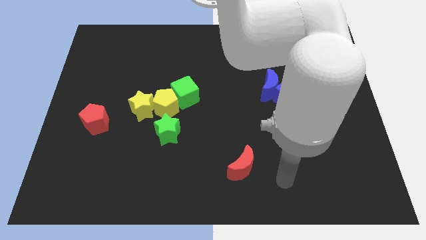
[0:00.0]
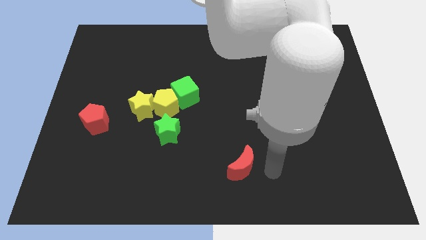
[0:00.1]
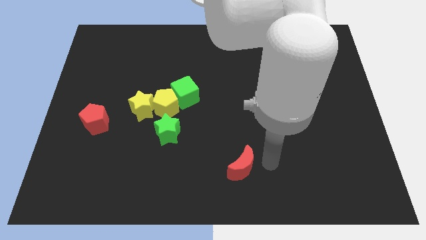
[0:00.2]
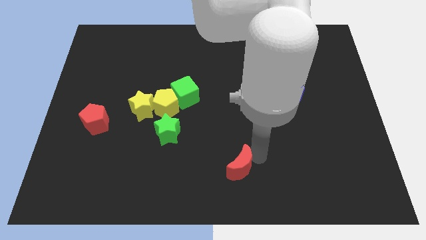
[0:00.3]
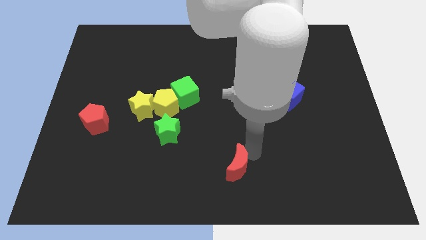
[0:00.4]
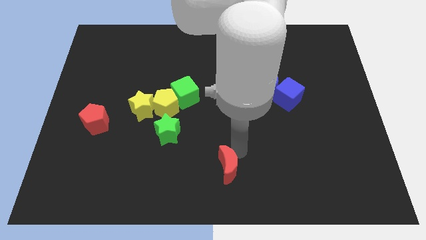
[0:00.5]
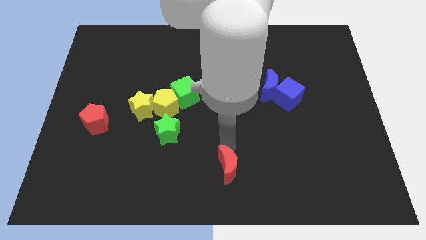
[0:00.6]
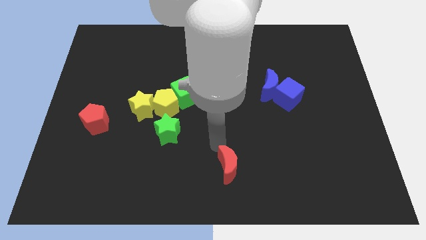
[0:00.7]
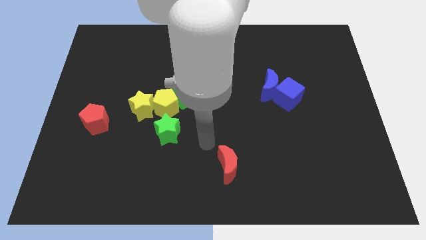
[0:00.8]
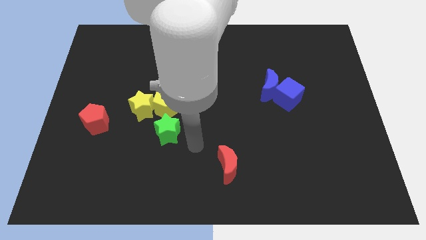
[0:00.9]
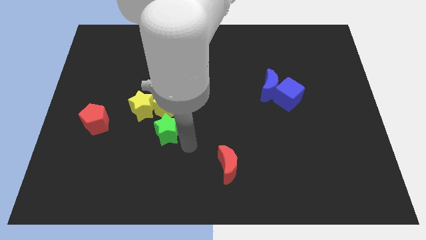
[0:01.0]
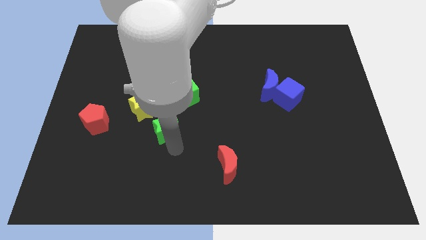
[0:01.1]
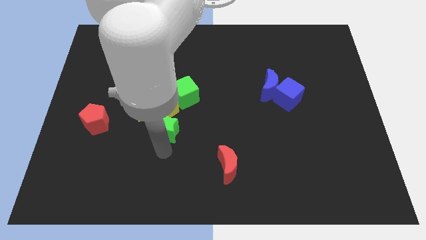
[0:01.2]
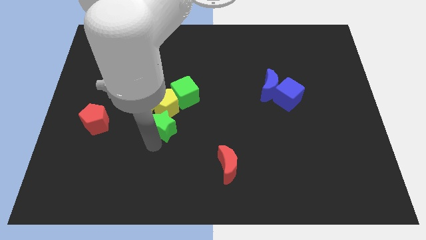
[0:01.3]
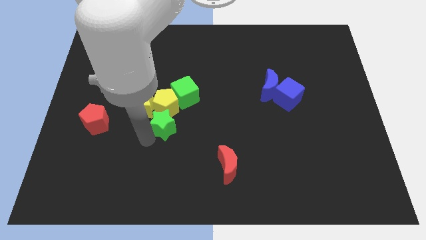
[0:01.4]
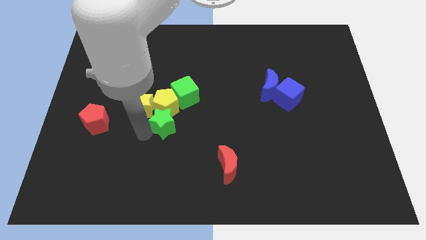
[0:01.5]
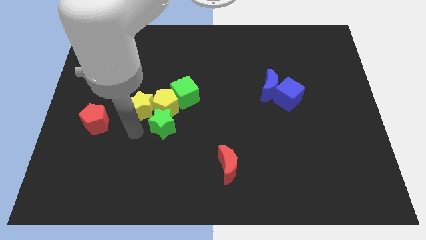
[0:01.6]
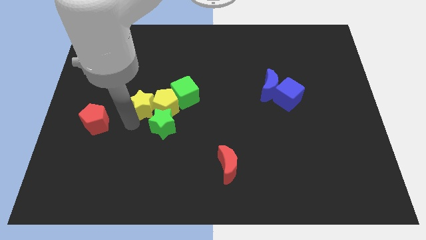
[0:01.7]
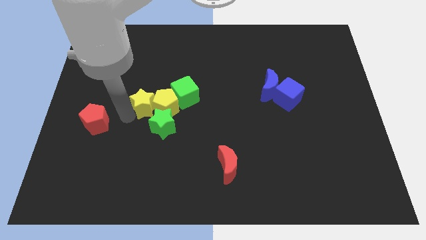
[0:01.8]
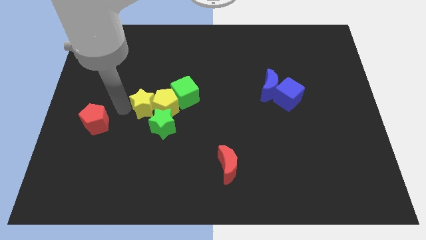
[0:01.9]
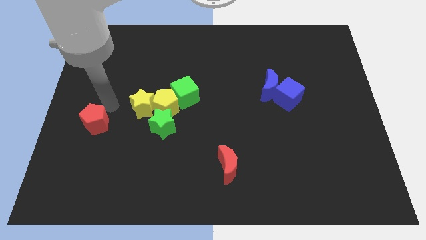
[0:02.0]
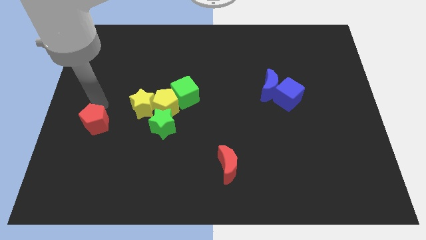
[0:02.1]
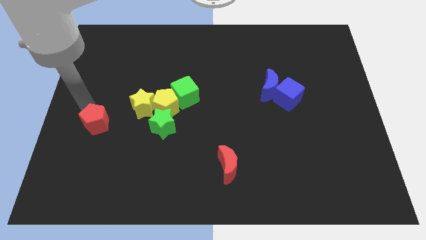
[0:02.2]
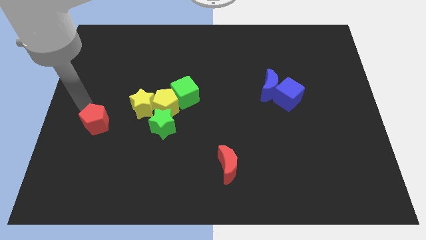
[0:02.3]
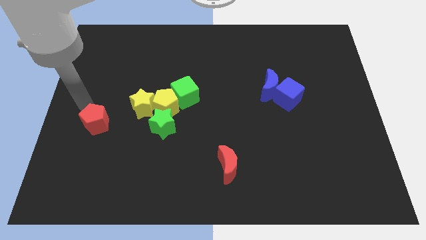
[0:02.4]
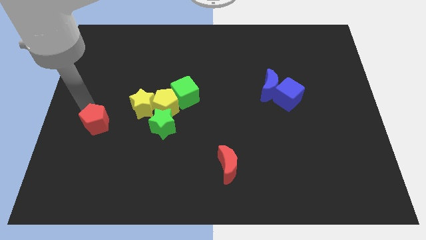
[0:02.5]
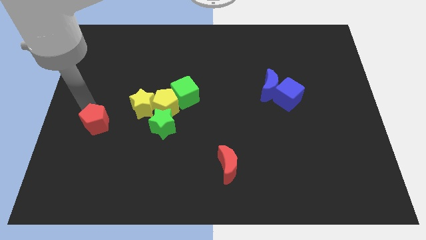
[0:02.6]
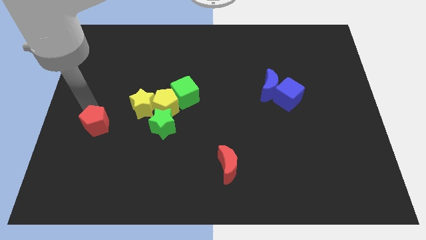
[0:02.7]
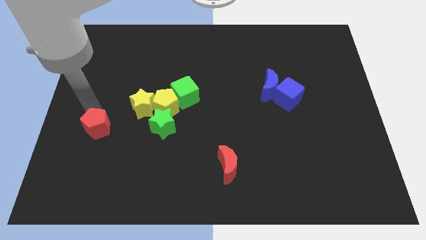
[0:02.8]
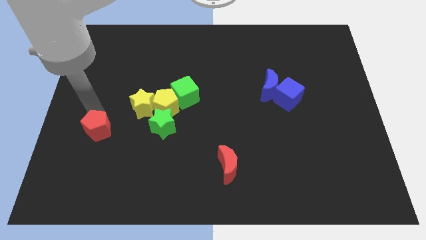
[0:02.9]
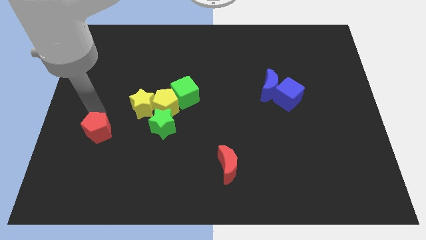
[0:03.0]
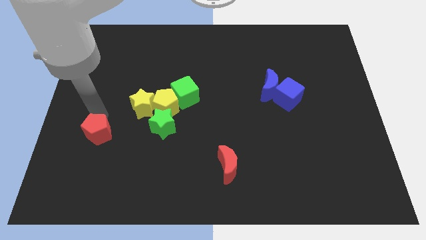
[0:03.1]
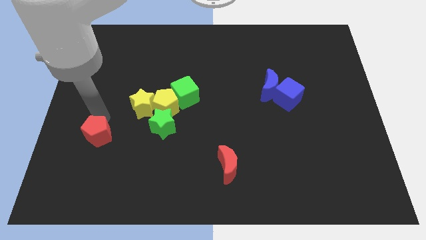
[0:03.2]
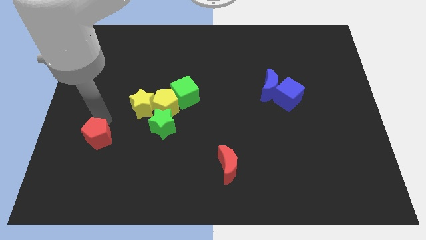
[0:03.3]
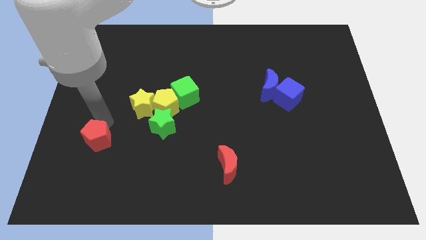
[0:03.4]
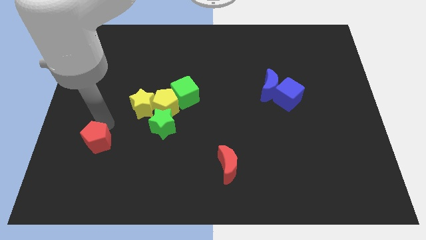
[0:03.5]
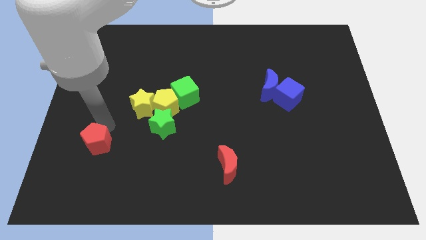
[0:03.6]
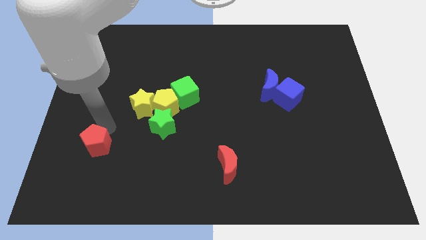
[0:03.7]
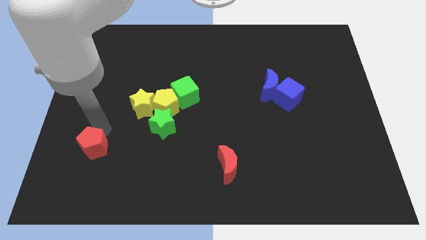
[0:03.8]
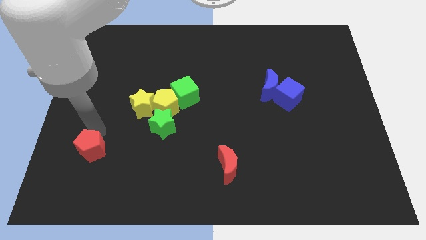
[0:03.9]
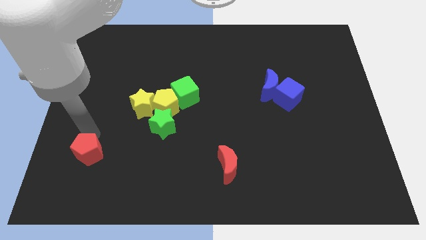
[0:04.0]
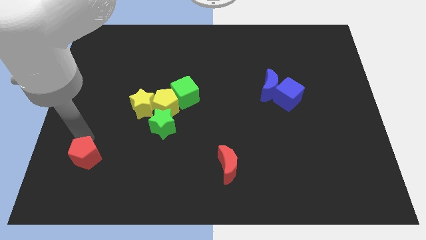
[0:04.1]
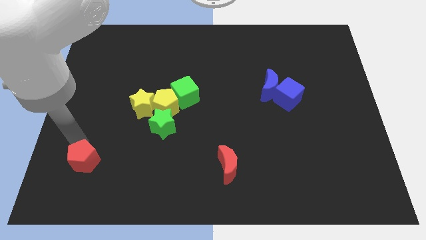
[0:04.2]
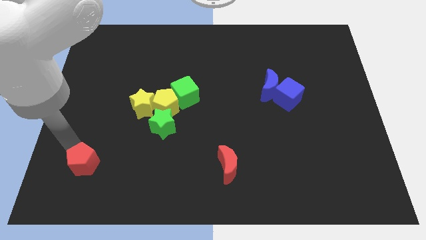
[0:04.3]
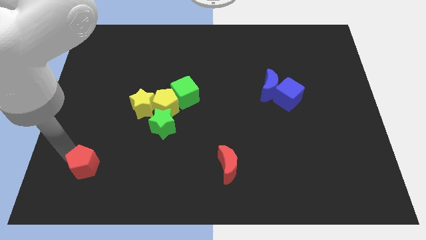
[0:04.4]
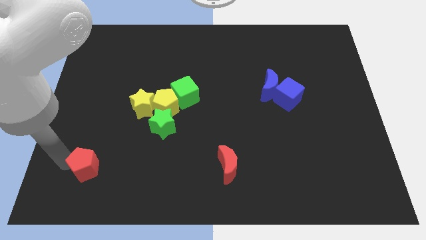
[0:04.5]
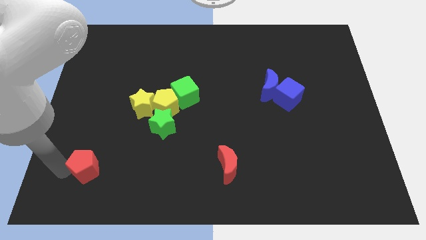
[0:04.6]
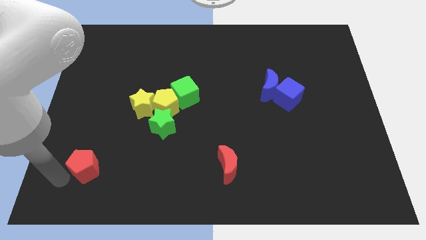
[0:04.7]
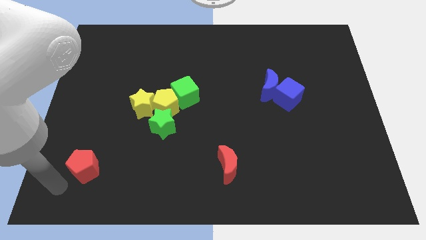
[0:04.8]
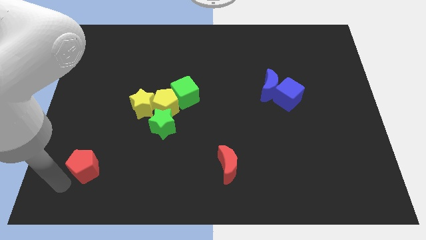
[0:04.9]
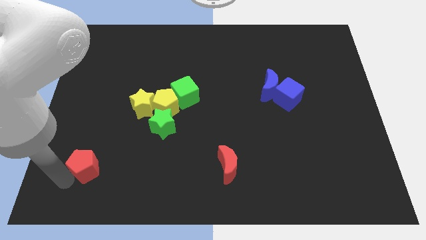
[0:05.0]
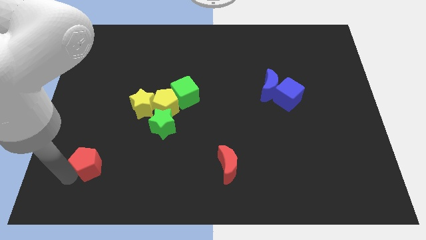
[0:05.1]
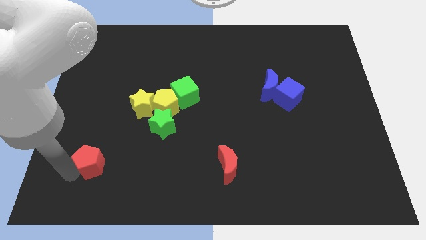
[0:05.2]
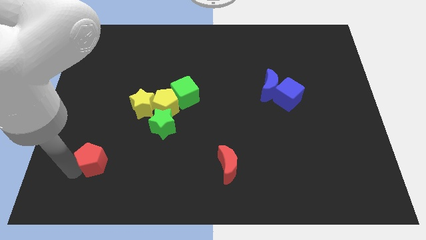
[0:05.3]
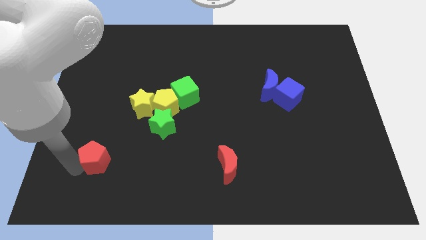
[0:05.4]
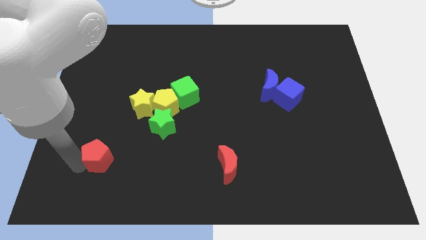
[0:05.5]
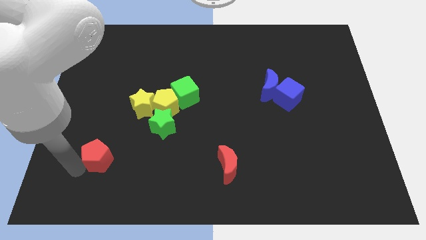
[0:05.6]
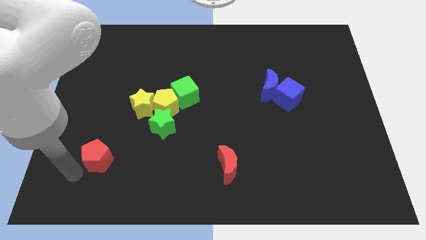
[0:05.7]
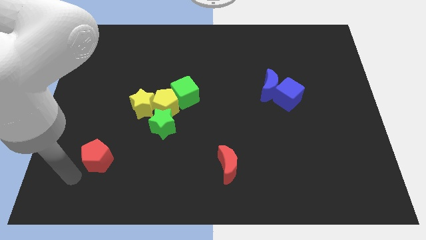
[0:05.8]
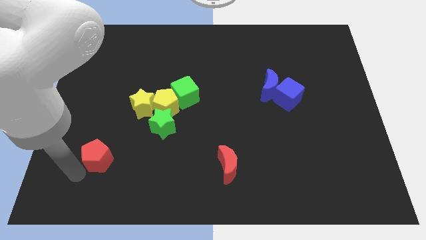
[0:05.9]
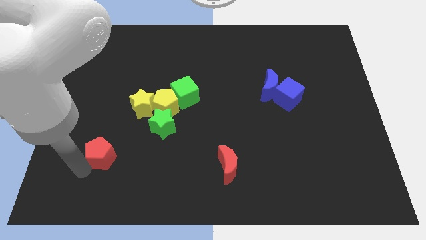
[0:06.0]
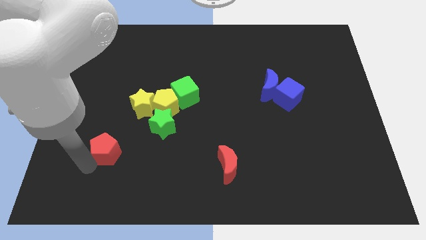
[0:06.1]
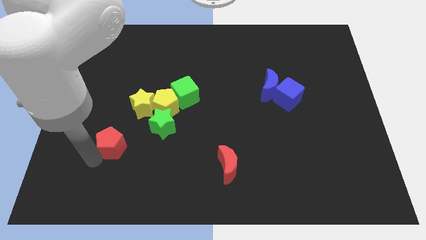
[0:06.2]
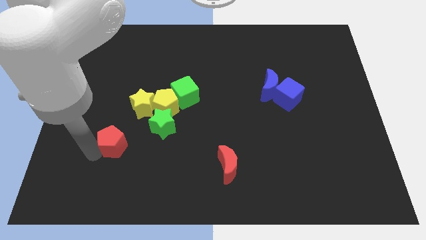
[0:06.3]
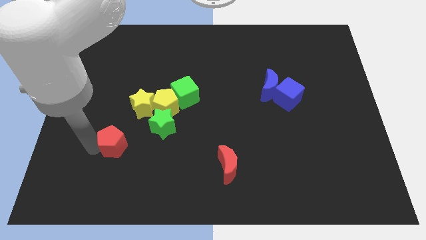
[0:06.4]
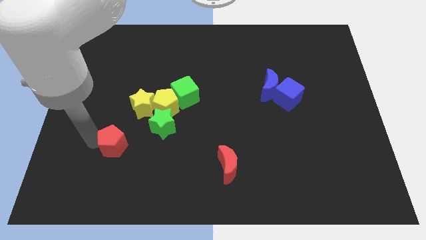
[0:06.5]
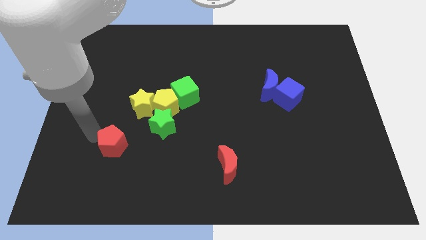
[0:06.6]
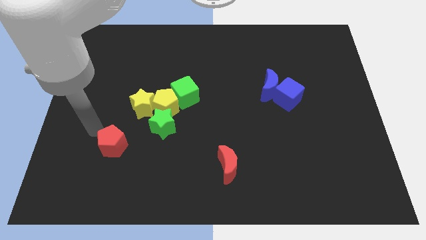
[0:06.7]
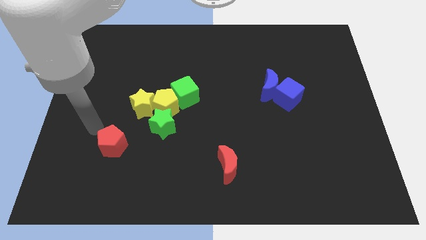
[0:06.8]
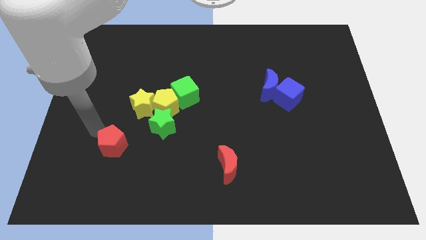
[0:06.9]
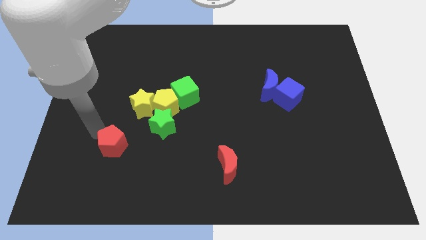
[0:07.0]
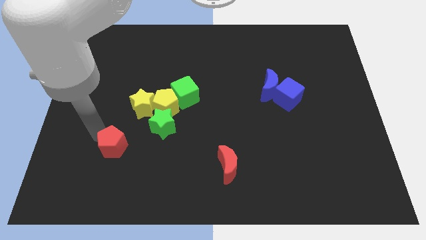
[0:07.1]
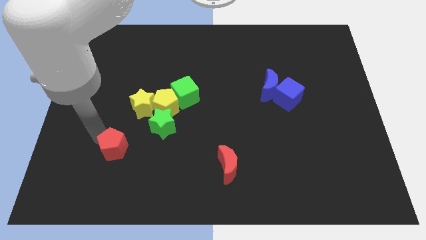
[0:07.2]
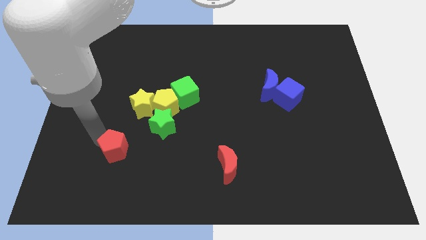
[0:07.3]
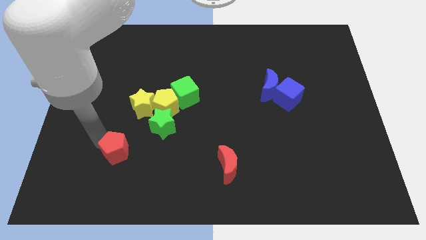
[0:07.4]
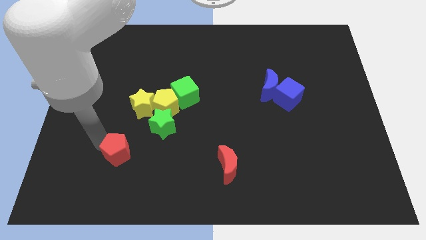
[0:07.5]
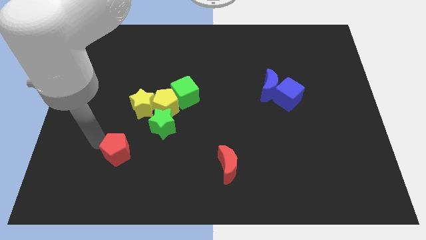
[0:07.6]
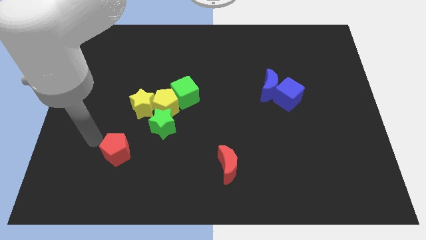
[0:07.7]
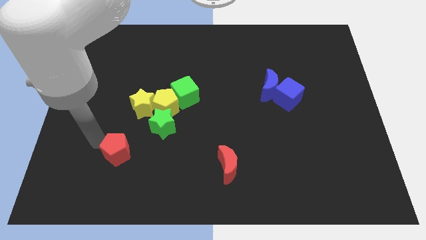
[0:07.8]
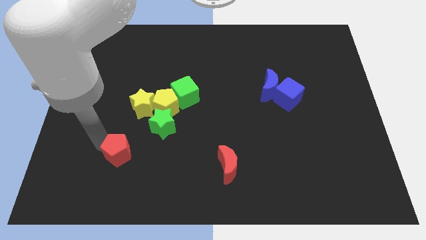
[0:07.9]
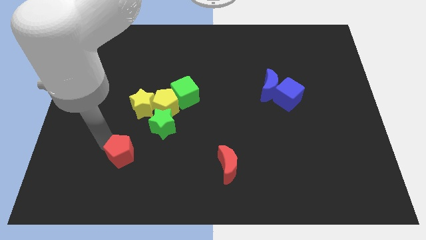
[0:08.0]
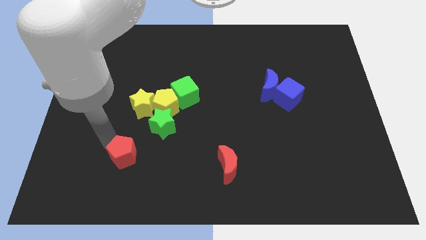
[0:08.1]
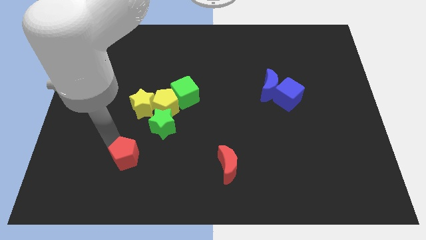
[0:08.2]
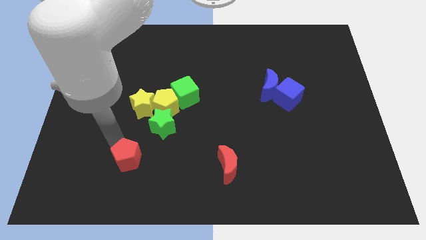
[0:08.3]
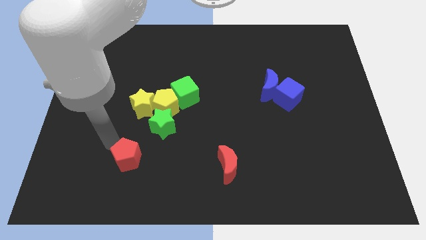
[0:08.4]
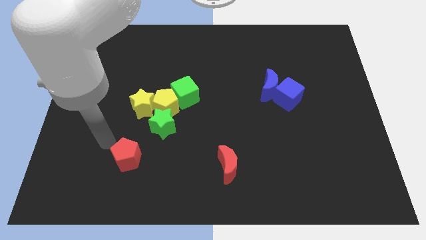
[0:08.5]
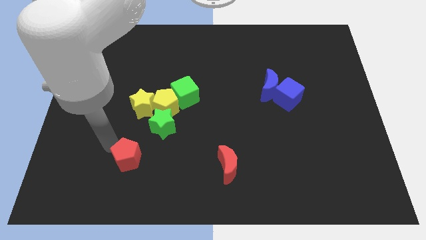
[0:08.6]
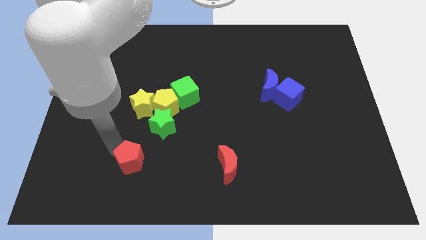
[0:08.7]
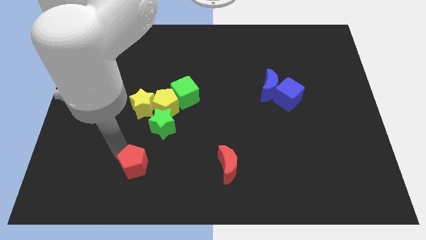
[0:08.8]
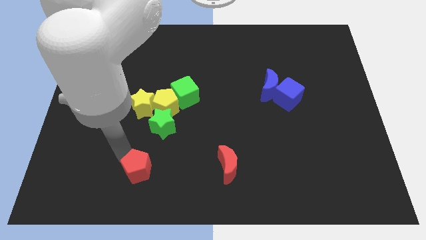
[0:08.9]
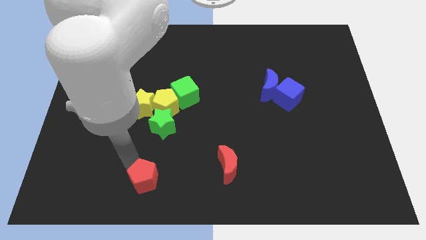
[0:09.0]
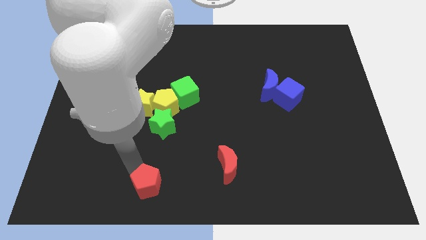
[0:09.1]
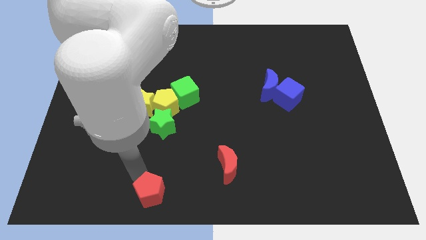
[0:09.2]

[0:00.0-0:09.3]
put the red pentagon to the bottom side
